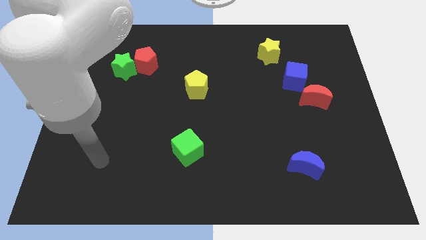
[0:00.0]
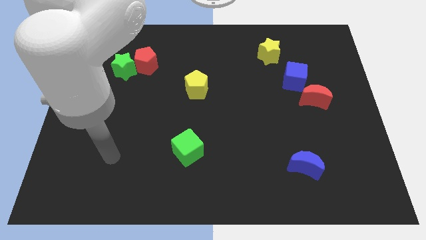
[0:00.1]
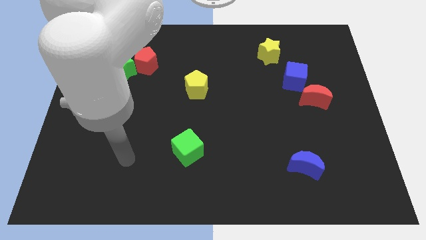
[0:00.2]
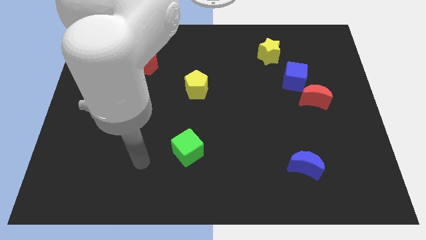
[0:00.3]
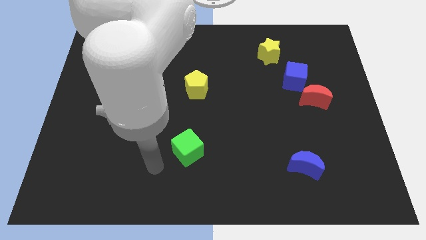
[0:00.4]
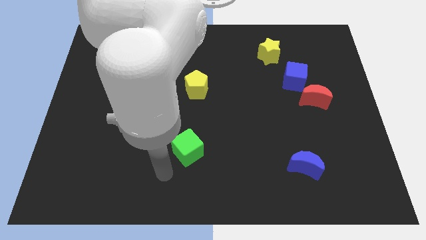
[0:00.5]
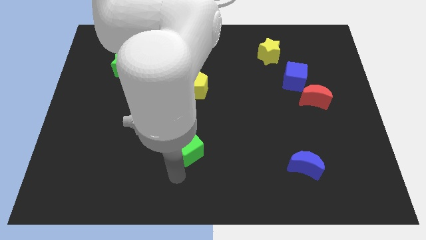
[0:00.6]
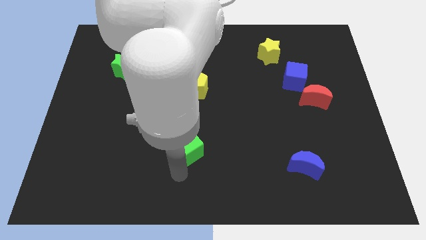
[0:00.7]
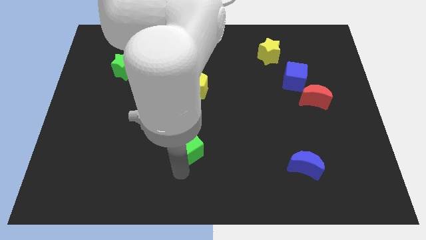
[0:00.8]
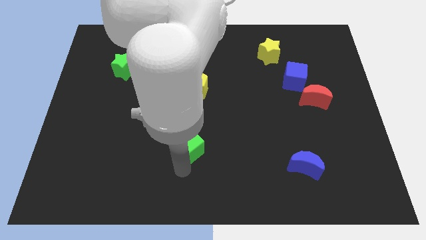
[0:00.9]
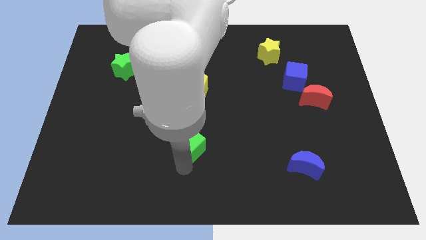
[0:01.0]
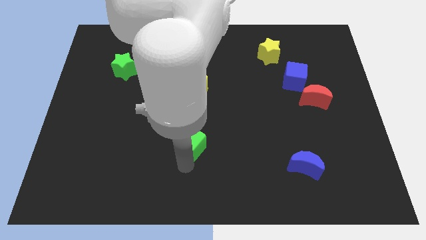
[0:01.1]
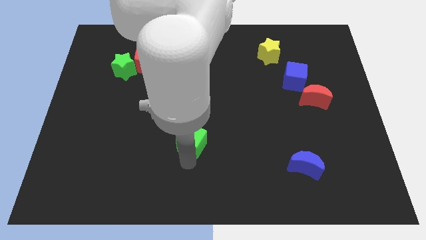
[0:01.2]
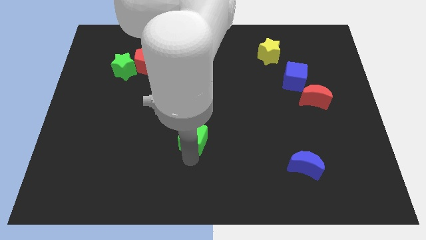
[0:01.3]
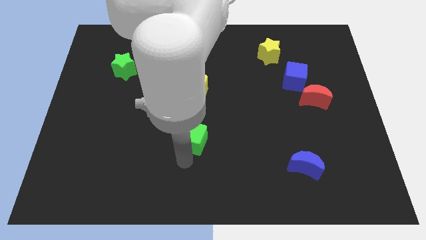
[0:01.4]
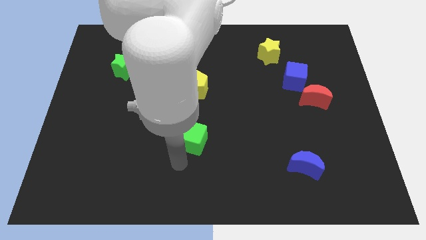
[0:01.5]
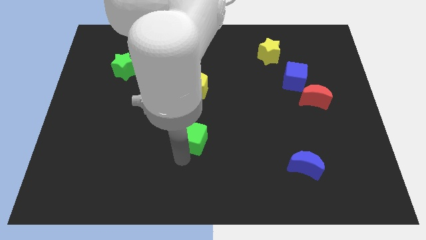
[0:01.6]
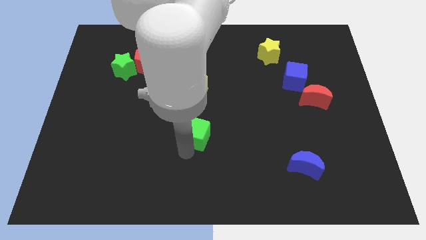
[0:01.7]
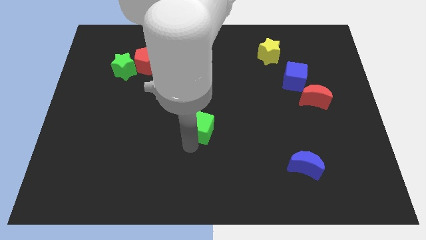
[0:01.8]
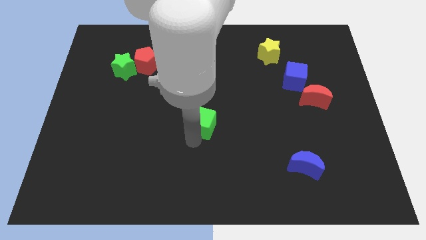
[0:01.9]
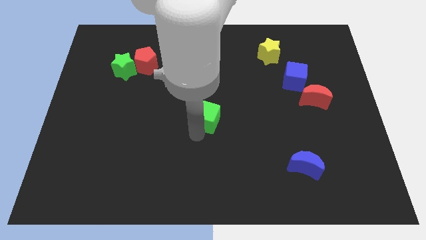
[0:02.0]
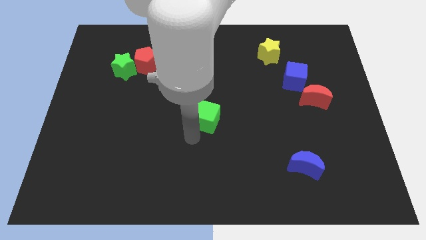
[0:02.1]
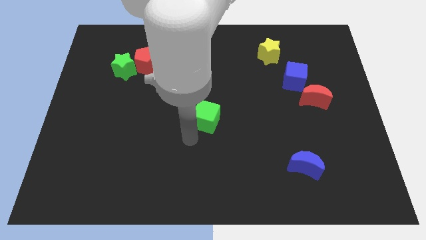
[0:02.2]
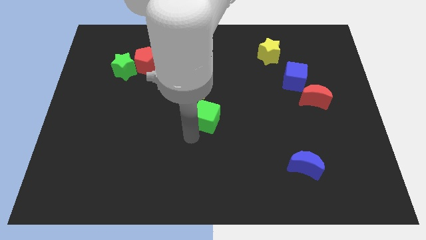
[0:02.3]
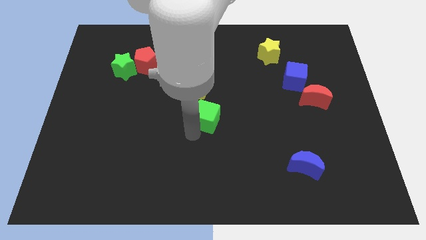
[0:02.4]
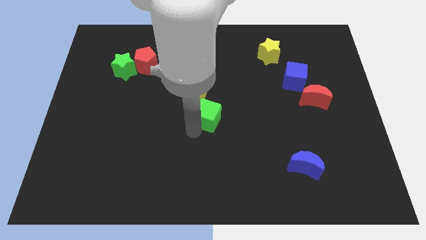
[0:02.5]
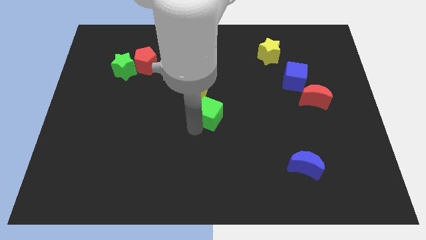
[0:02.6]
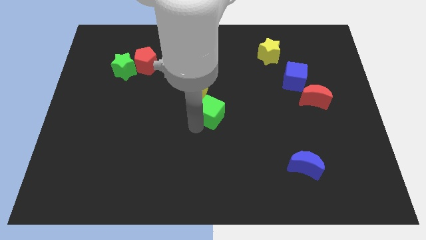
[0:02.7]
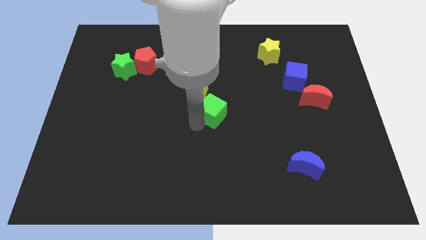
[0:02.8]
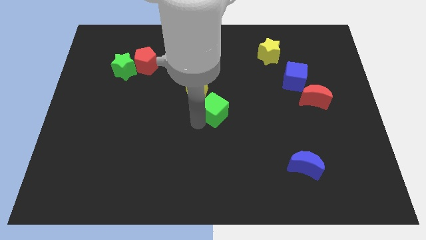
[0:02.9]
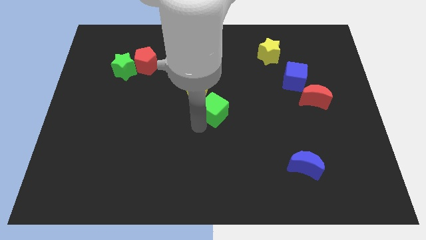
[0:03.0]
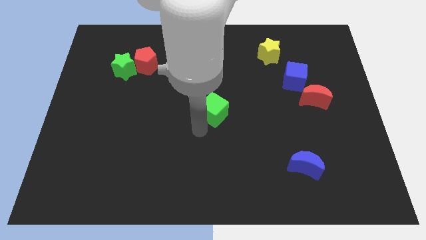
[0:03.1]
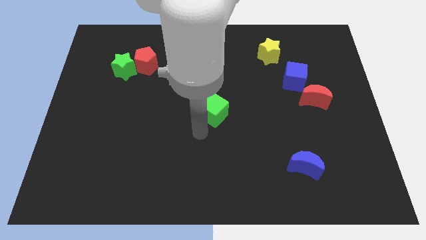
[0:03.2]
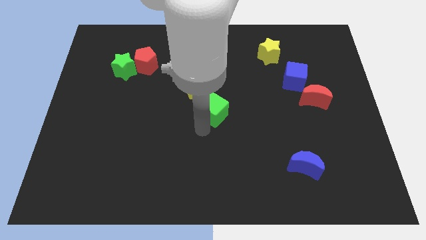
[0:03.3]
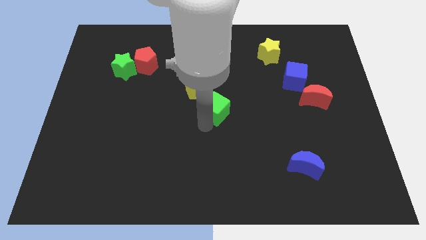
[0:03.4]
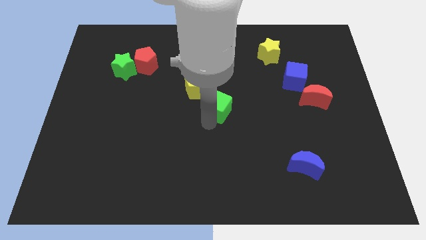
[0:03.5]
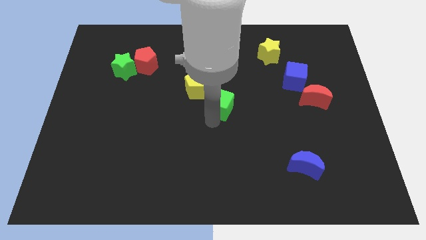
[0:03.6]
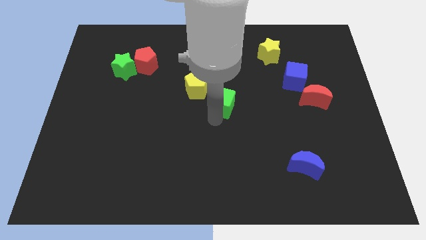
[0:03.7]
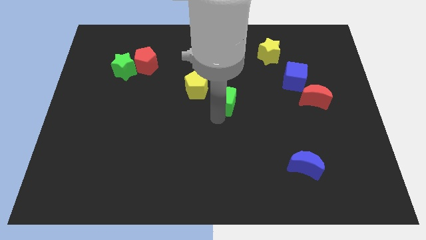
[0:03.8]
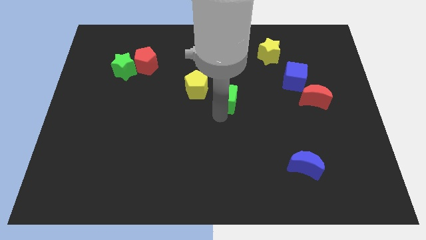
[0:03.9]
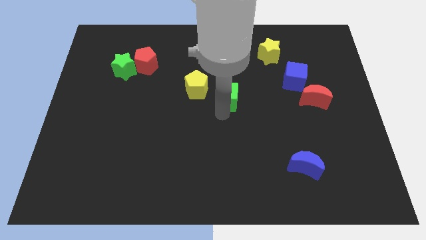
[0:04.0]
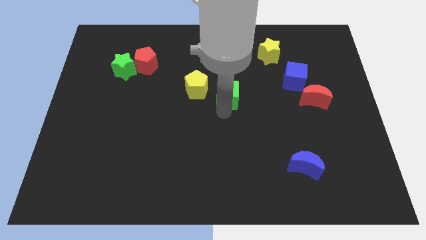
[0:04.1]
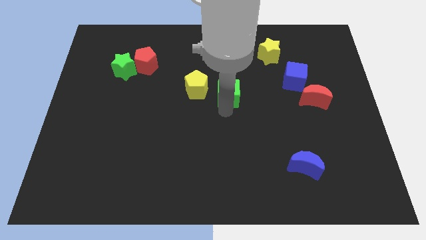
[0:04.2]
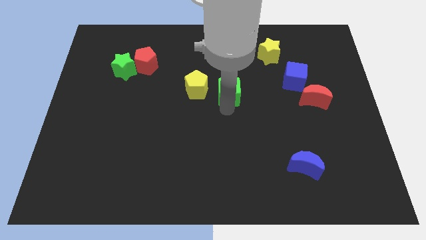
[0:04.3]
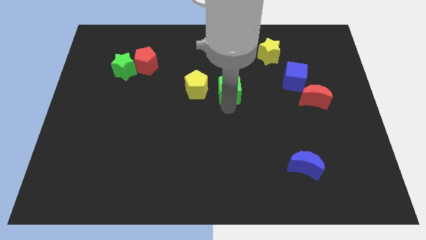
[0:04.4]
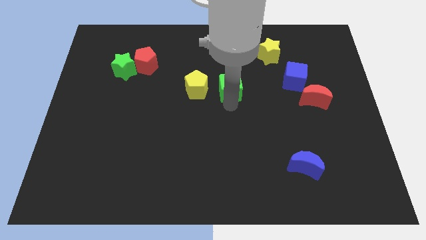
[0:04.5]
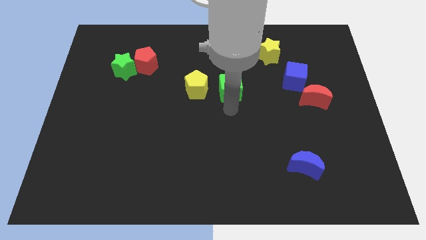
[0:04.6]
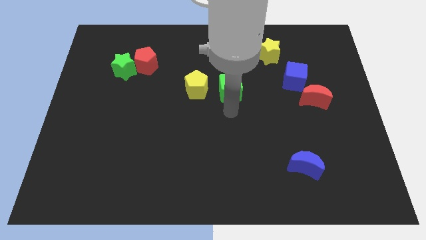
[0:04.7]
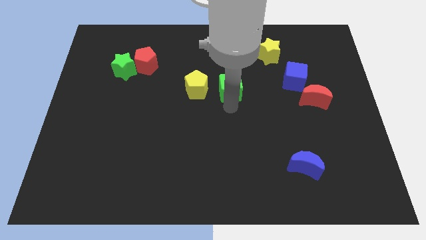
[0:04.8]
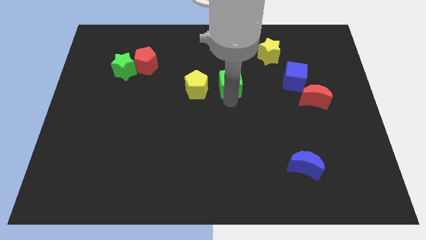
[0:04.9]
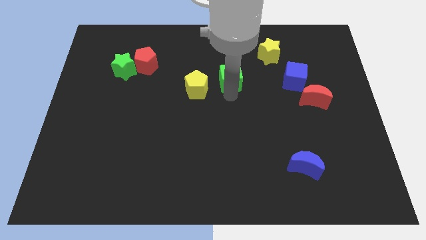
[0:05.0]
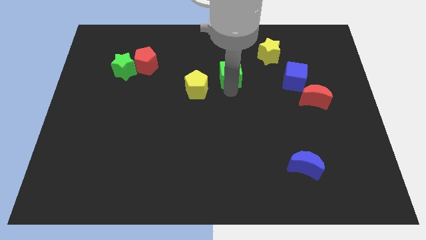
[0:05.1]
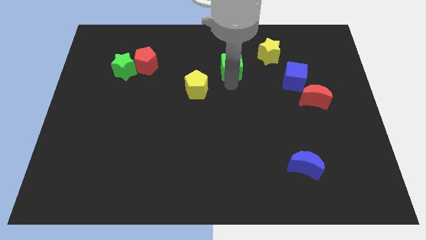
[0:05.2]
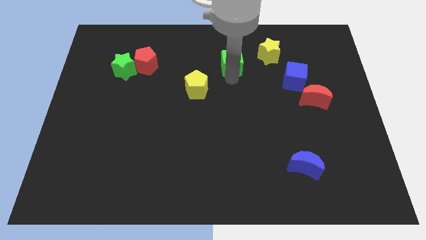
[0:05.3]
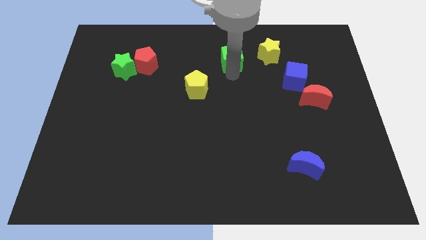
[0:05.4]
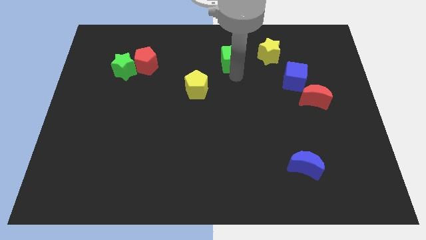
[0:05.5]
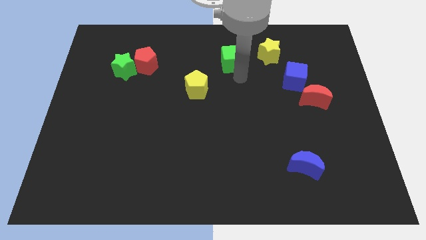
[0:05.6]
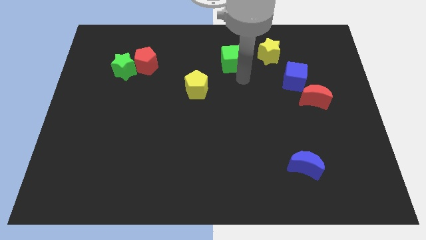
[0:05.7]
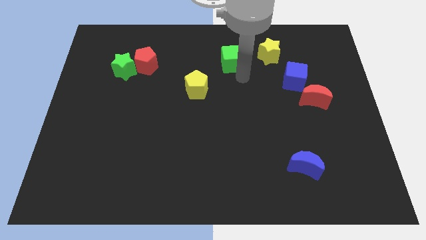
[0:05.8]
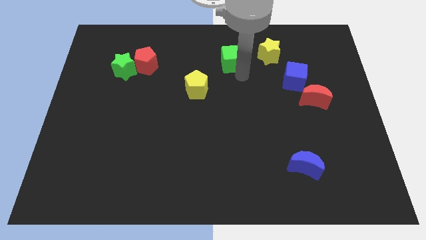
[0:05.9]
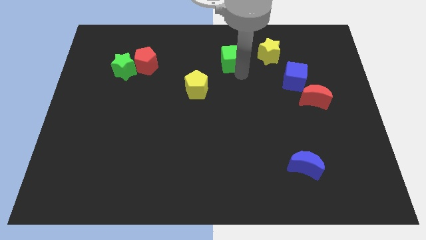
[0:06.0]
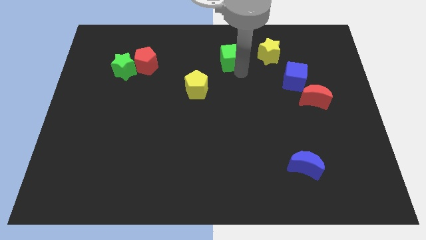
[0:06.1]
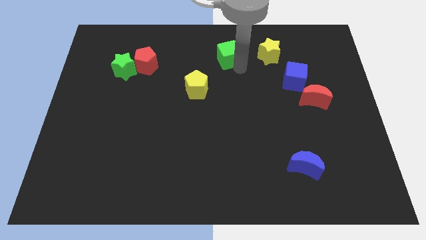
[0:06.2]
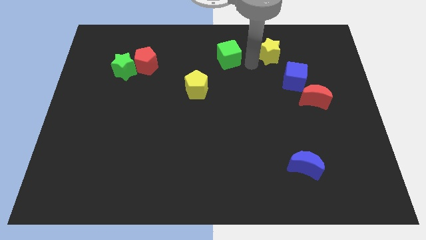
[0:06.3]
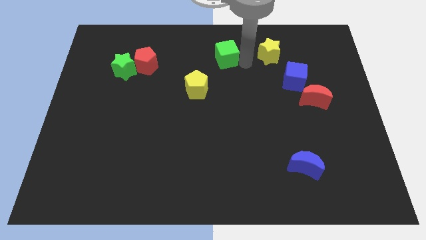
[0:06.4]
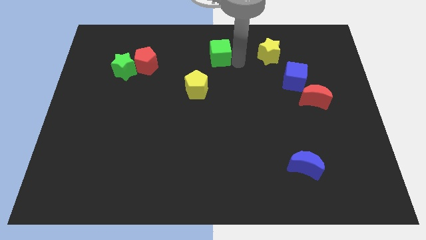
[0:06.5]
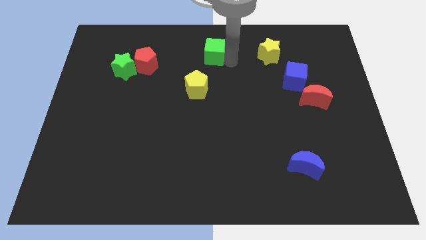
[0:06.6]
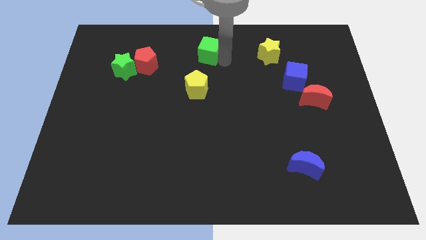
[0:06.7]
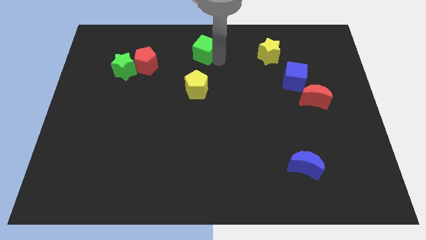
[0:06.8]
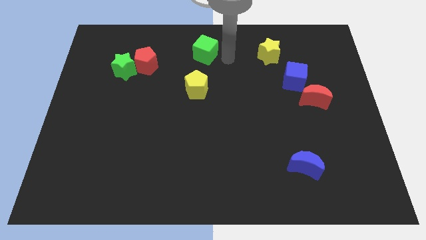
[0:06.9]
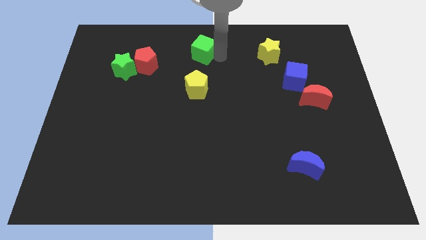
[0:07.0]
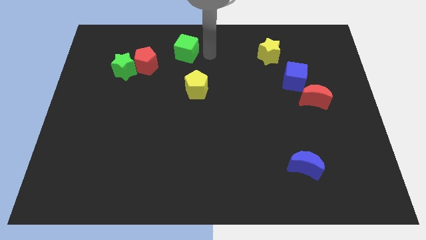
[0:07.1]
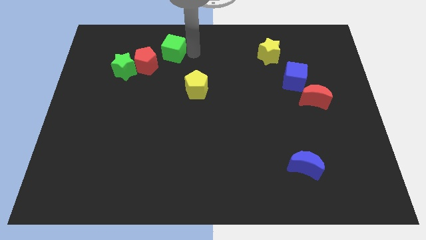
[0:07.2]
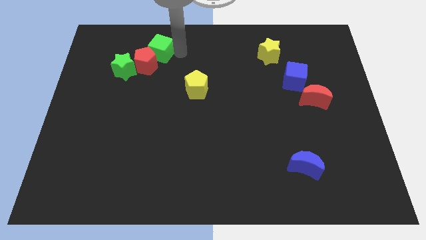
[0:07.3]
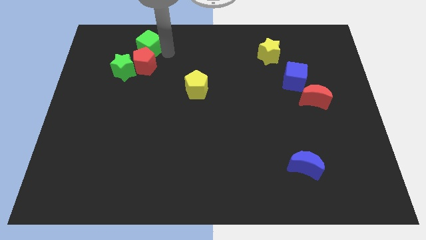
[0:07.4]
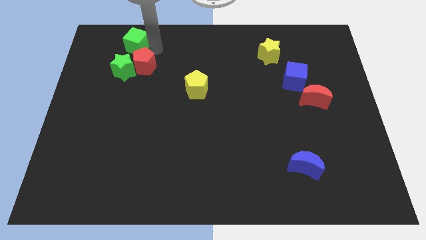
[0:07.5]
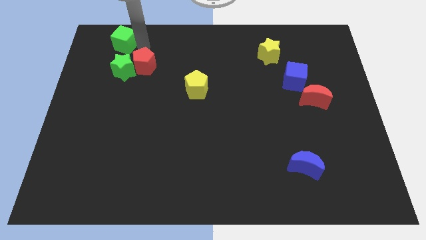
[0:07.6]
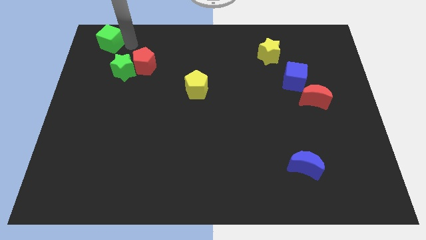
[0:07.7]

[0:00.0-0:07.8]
put the green cube to the upper left corner
